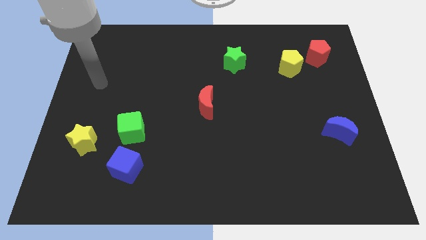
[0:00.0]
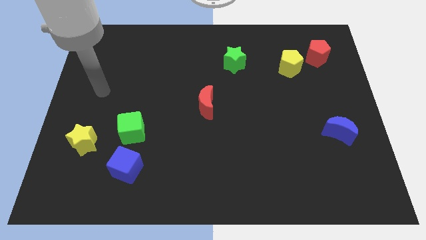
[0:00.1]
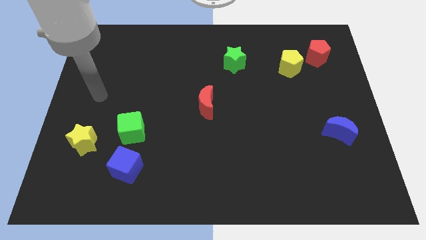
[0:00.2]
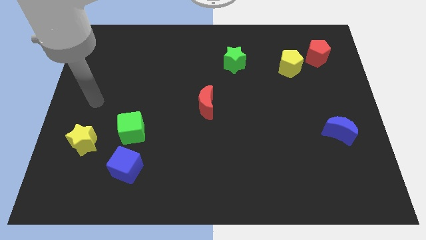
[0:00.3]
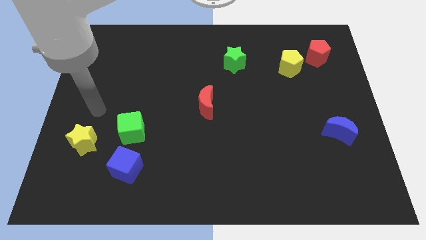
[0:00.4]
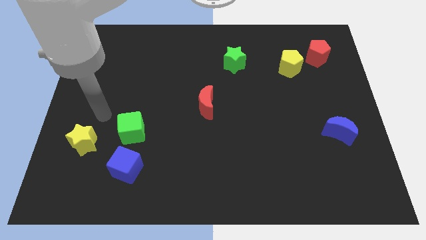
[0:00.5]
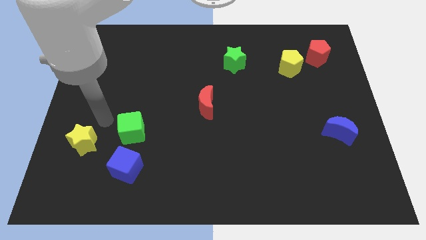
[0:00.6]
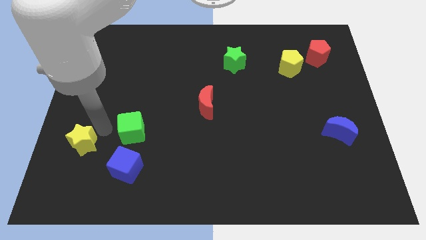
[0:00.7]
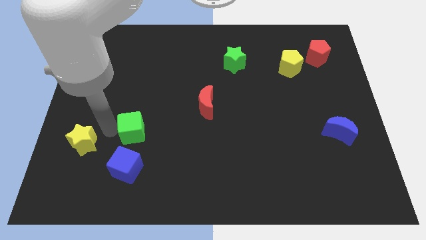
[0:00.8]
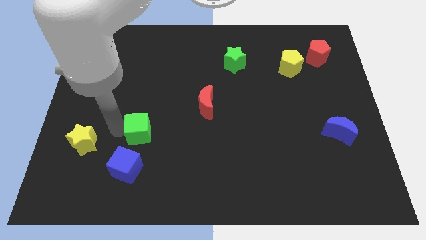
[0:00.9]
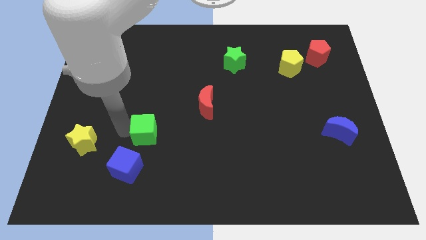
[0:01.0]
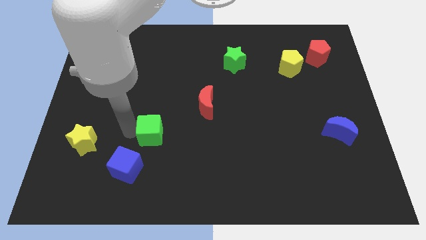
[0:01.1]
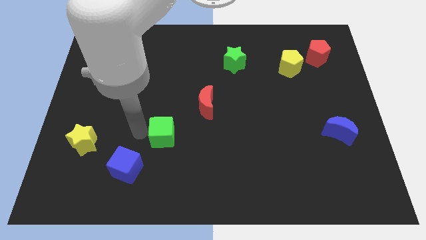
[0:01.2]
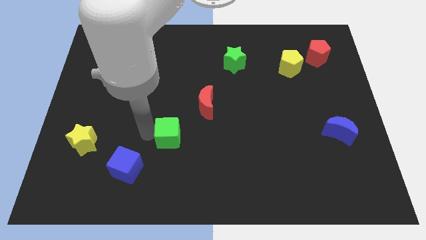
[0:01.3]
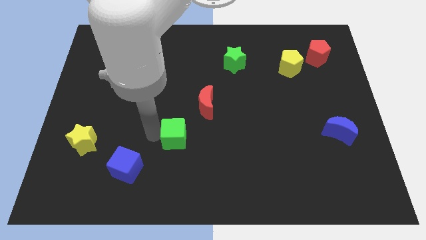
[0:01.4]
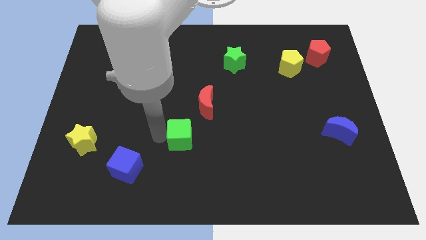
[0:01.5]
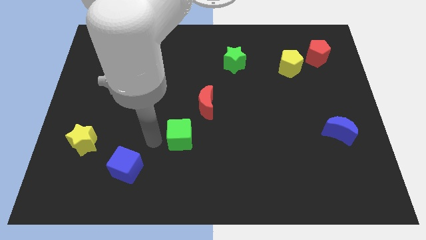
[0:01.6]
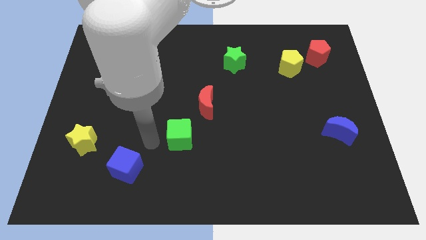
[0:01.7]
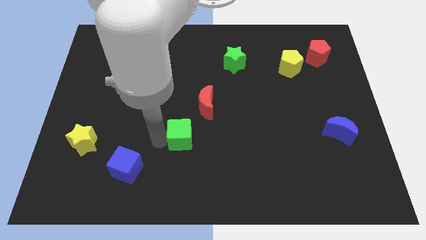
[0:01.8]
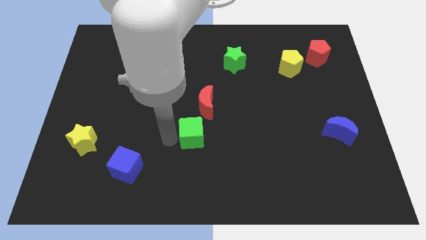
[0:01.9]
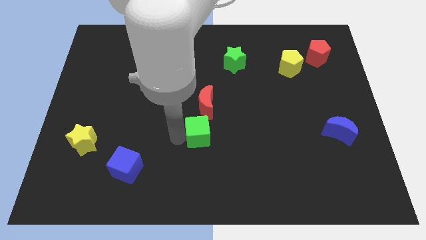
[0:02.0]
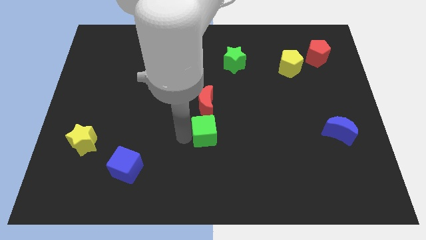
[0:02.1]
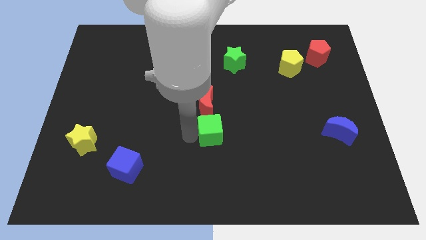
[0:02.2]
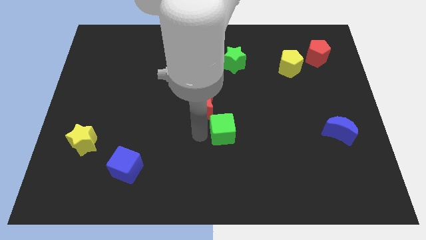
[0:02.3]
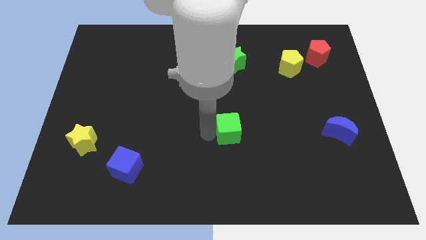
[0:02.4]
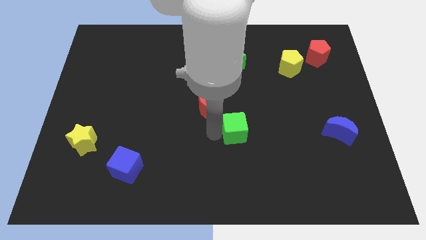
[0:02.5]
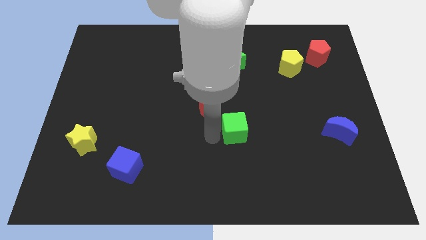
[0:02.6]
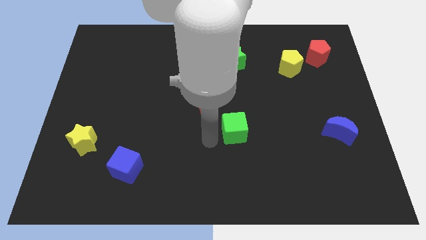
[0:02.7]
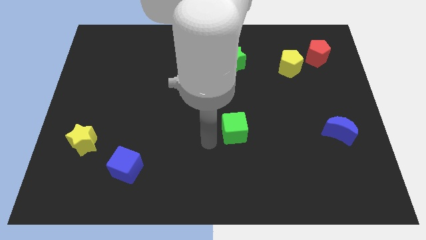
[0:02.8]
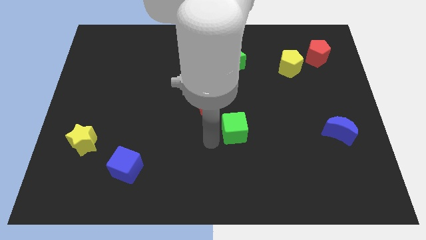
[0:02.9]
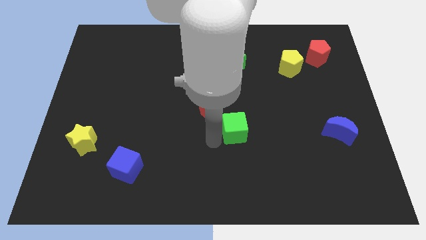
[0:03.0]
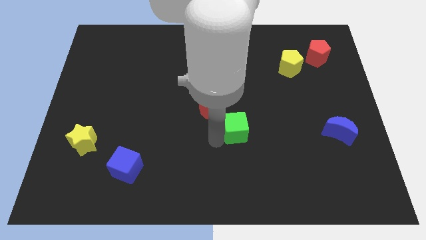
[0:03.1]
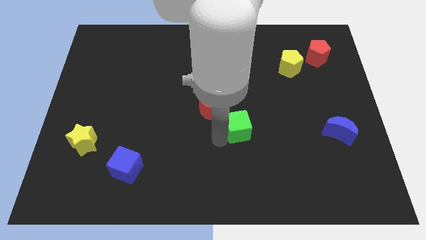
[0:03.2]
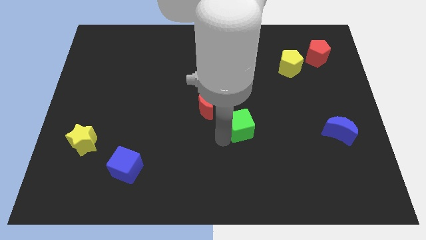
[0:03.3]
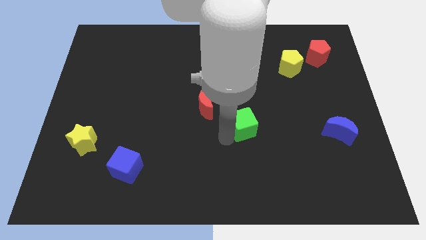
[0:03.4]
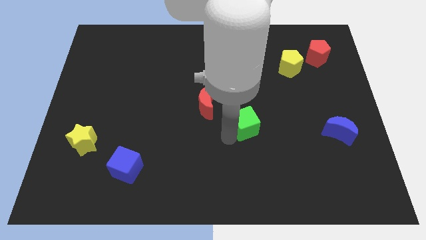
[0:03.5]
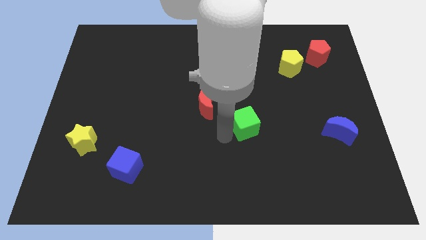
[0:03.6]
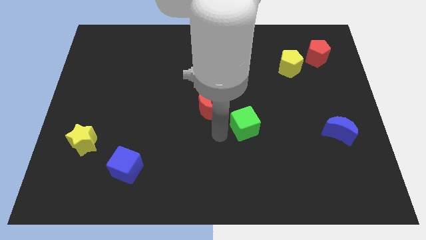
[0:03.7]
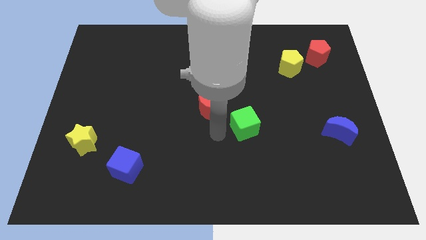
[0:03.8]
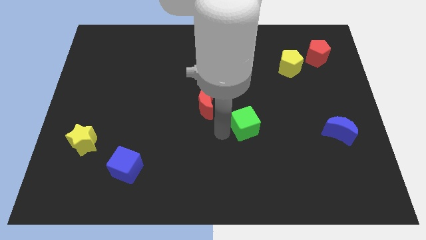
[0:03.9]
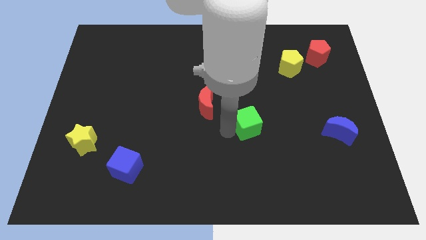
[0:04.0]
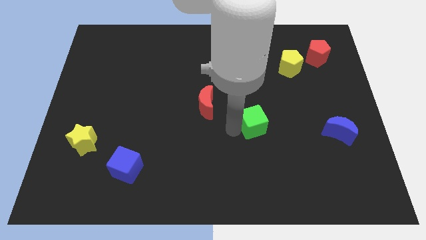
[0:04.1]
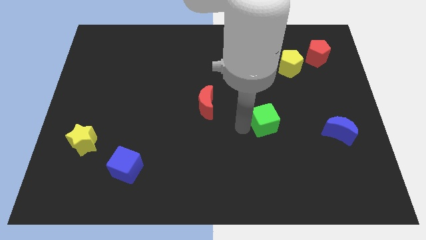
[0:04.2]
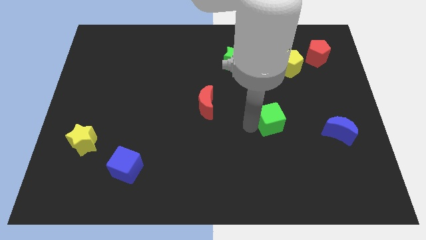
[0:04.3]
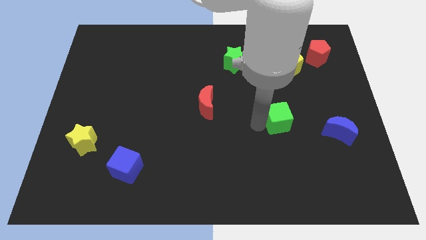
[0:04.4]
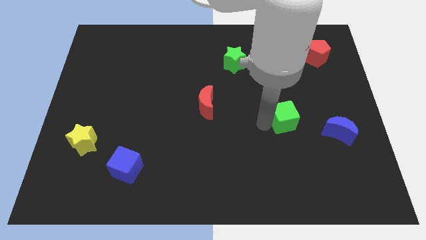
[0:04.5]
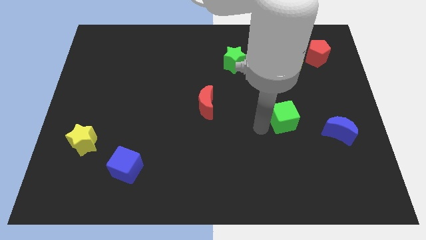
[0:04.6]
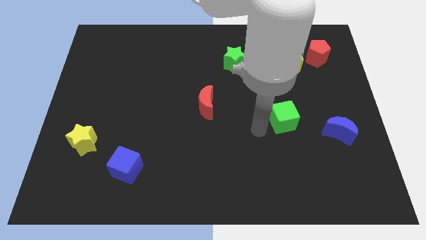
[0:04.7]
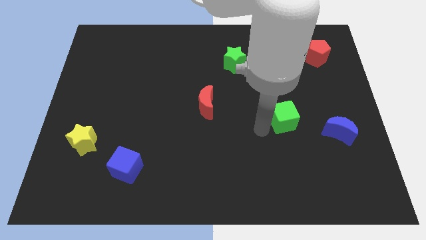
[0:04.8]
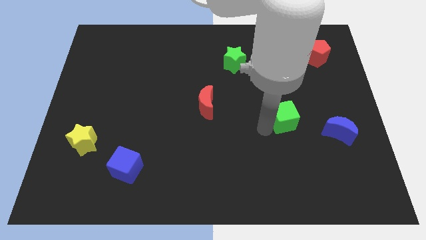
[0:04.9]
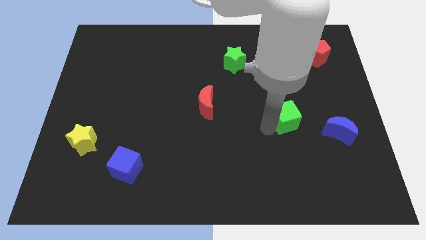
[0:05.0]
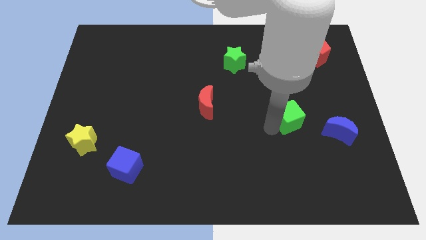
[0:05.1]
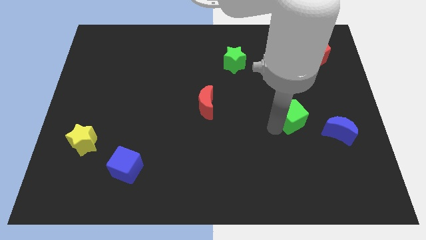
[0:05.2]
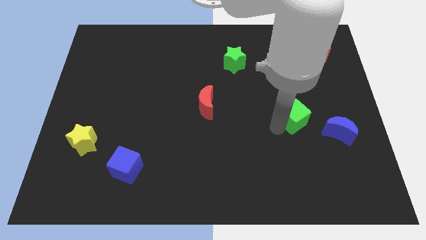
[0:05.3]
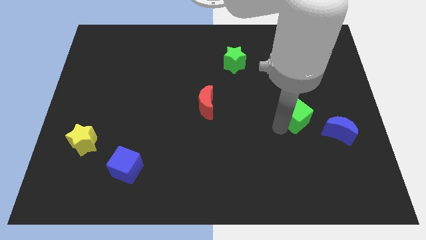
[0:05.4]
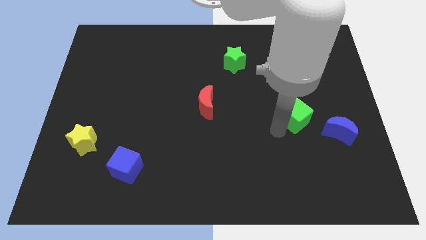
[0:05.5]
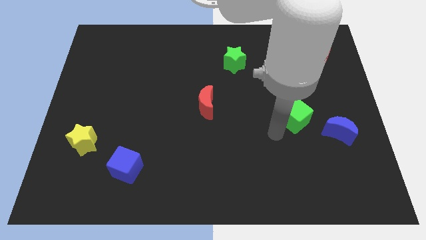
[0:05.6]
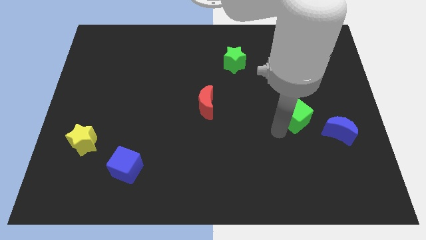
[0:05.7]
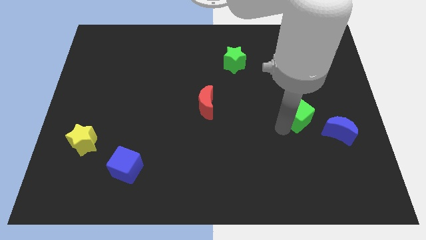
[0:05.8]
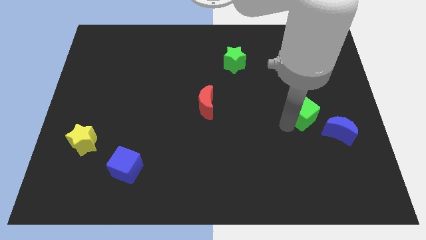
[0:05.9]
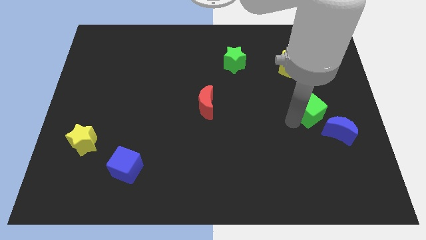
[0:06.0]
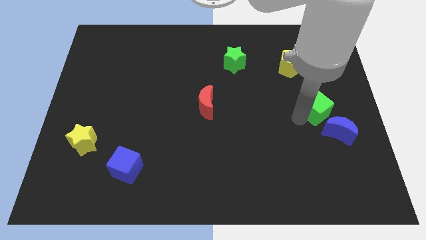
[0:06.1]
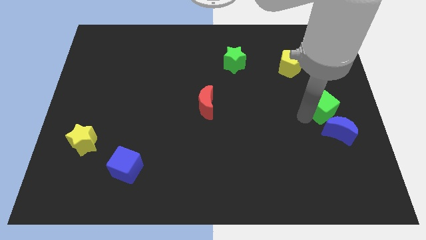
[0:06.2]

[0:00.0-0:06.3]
move the green cube to the right side of the board

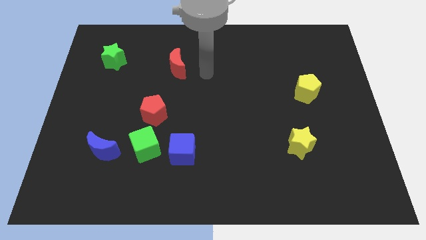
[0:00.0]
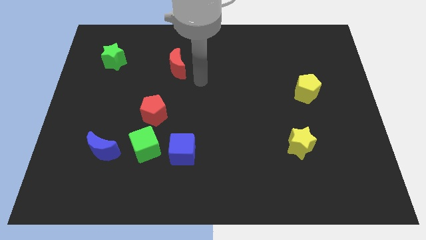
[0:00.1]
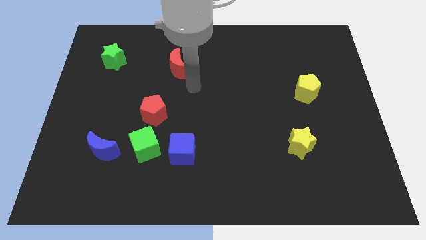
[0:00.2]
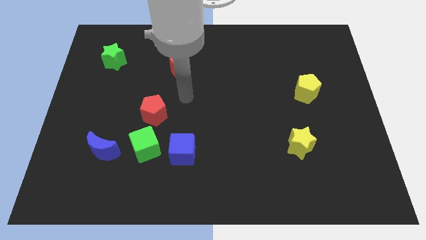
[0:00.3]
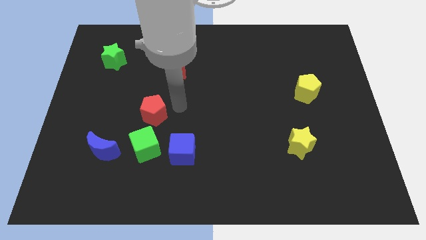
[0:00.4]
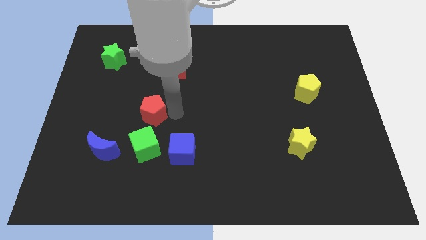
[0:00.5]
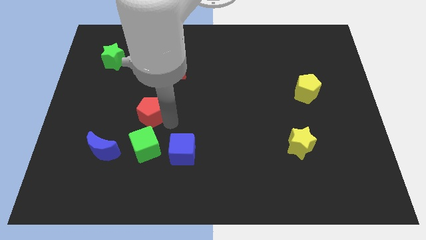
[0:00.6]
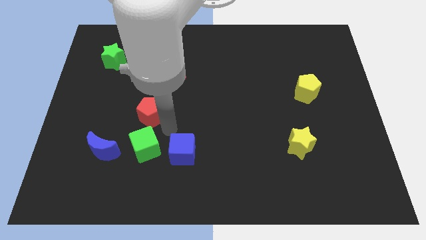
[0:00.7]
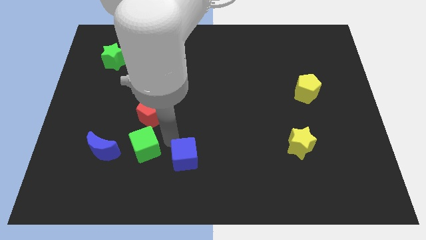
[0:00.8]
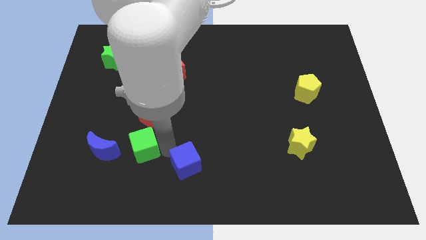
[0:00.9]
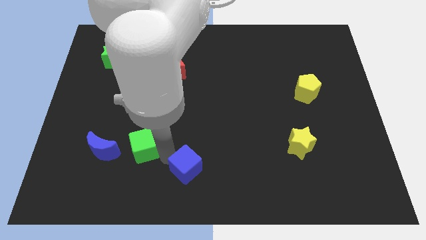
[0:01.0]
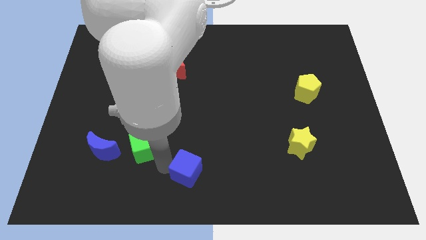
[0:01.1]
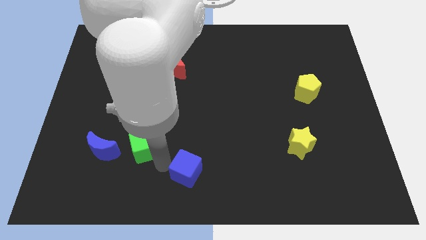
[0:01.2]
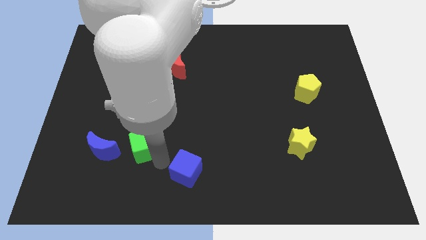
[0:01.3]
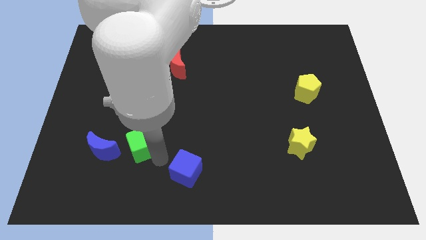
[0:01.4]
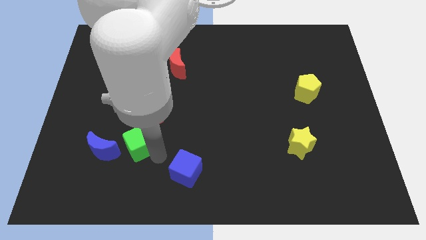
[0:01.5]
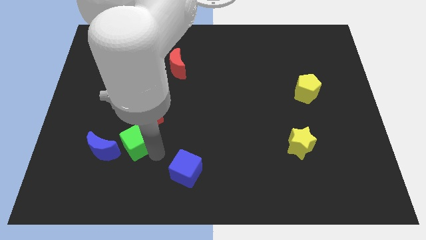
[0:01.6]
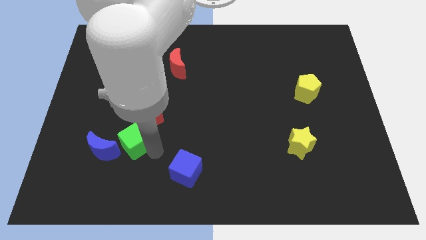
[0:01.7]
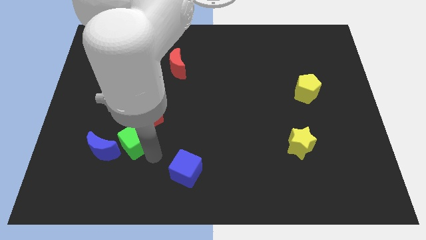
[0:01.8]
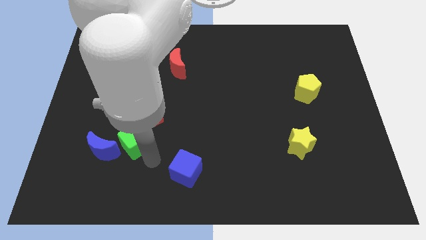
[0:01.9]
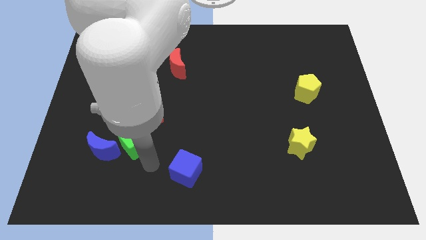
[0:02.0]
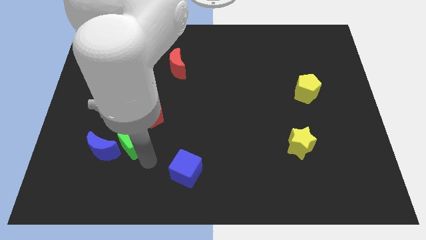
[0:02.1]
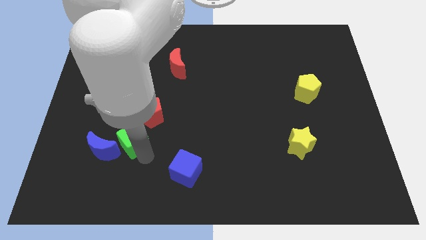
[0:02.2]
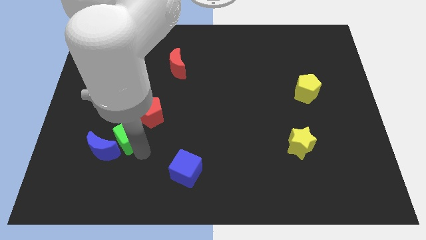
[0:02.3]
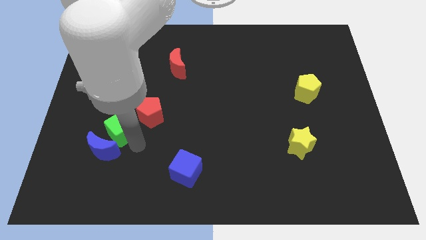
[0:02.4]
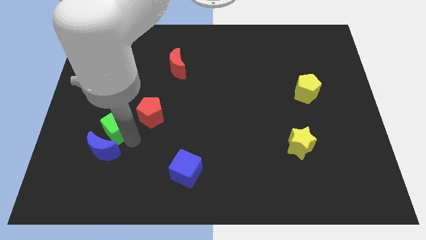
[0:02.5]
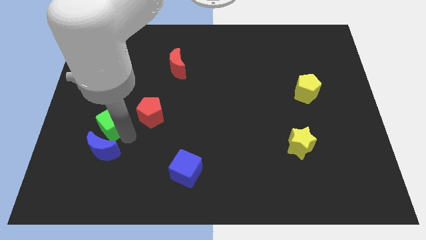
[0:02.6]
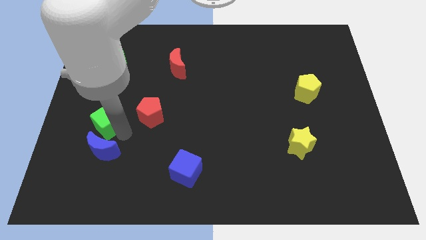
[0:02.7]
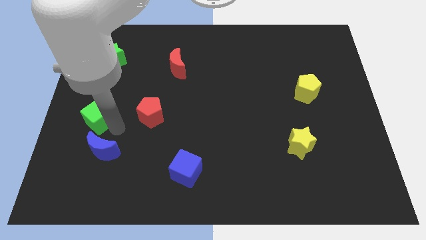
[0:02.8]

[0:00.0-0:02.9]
move the green cube to the left side
